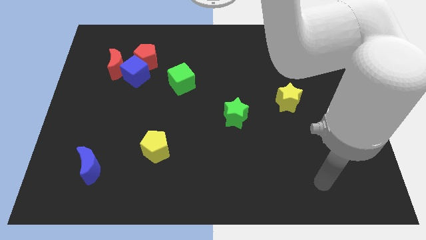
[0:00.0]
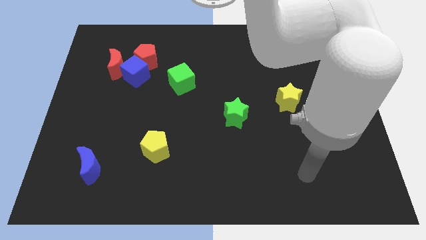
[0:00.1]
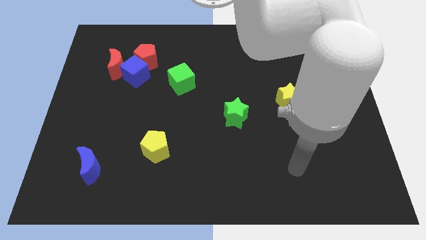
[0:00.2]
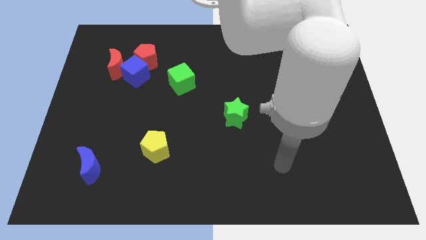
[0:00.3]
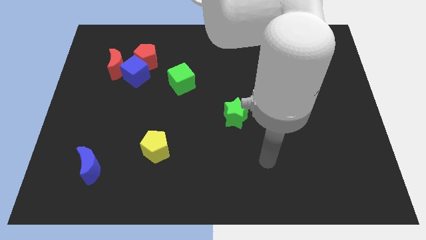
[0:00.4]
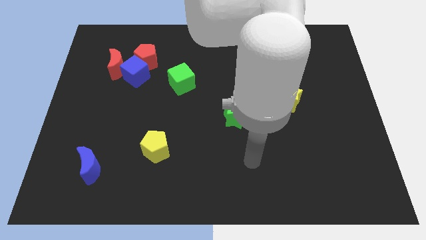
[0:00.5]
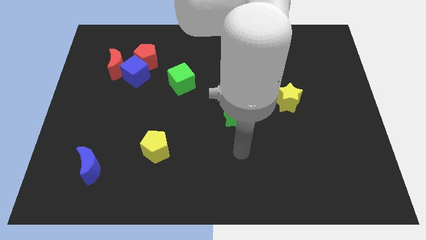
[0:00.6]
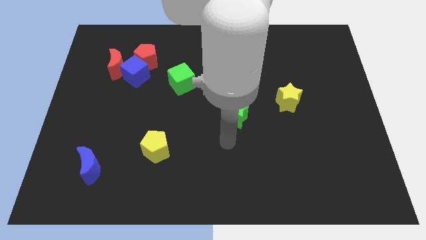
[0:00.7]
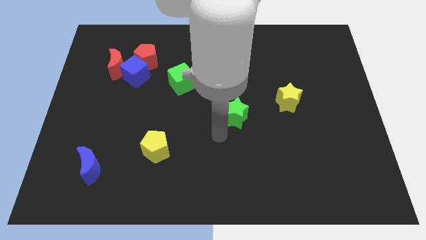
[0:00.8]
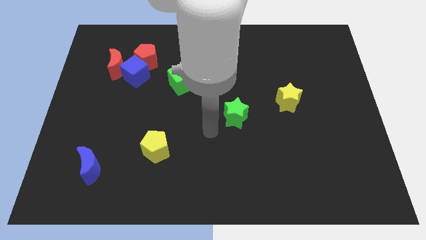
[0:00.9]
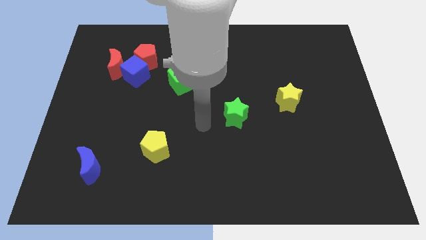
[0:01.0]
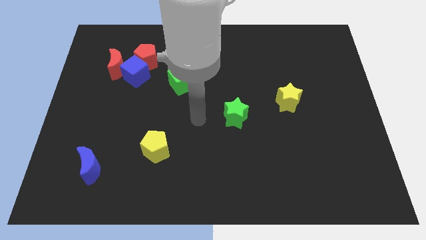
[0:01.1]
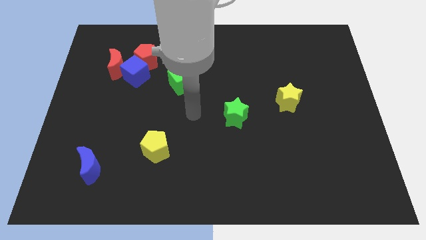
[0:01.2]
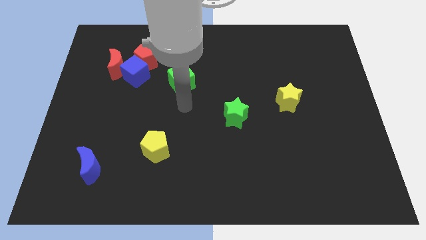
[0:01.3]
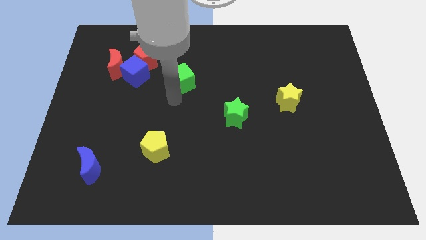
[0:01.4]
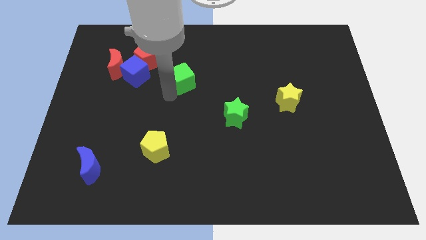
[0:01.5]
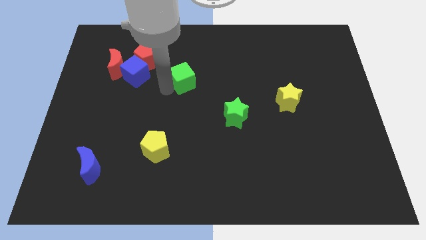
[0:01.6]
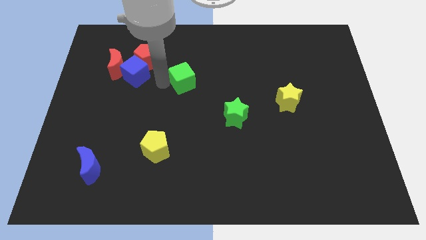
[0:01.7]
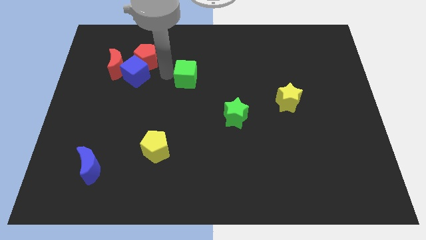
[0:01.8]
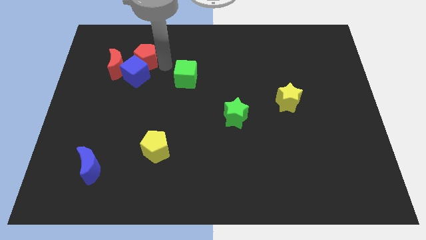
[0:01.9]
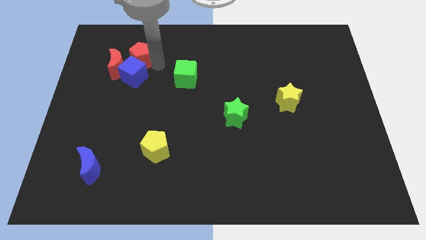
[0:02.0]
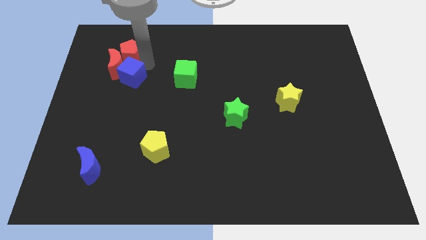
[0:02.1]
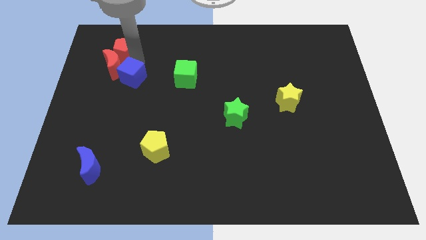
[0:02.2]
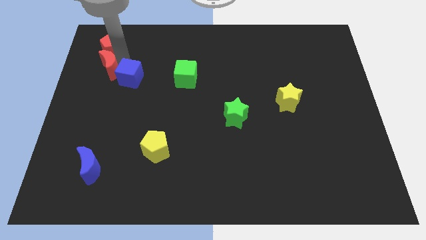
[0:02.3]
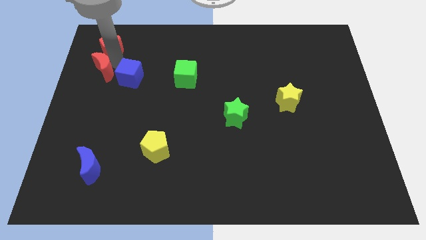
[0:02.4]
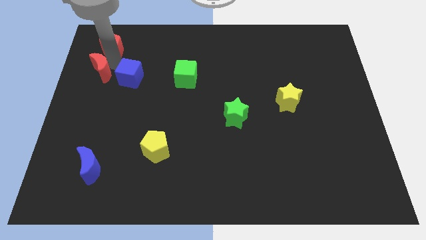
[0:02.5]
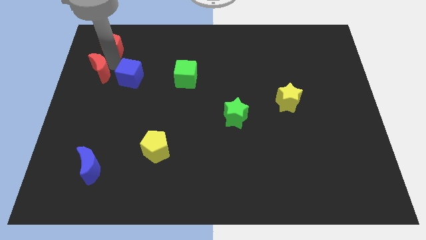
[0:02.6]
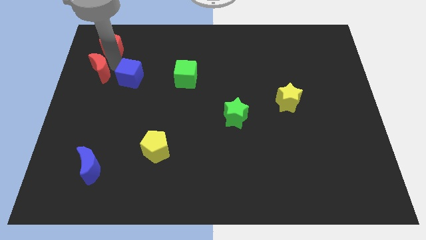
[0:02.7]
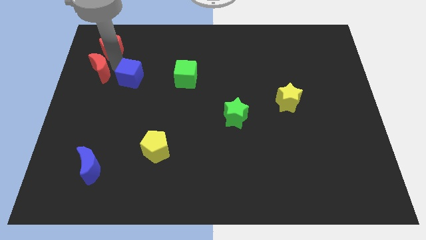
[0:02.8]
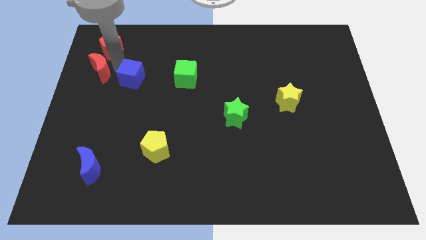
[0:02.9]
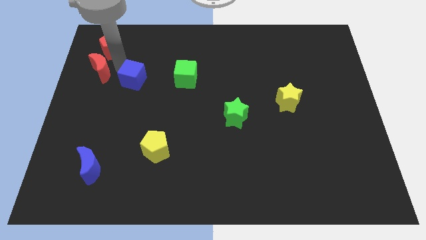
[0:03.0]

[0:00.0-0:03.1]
separate the blue cube from the red pentagon and red moon

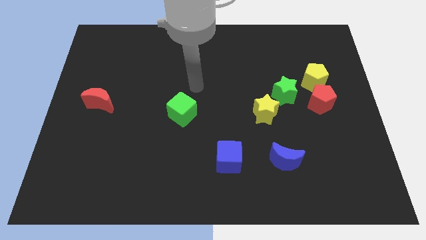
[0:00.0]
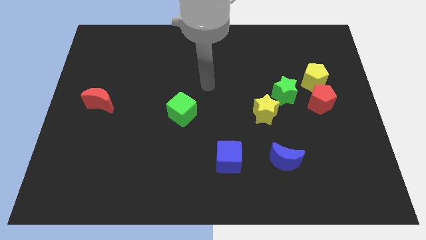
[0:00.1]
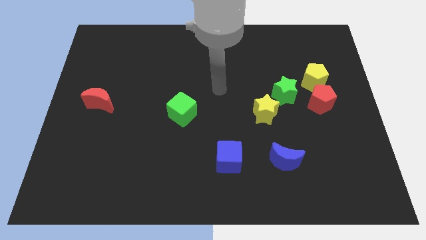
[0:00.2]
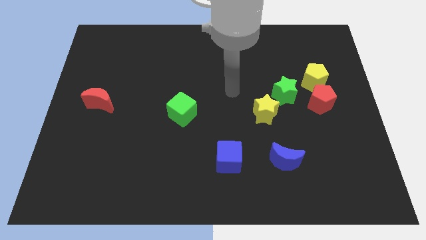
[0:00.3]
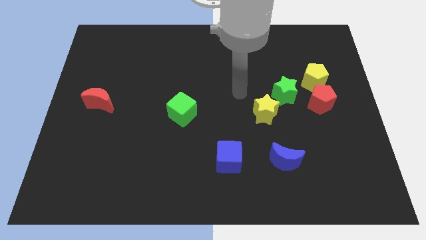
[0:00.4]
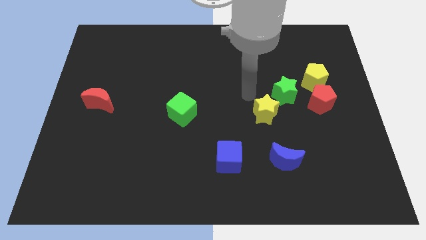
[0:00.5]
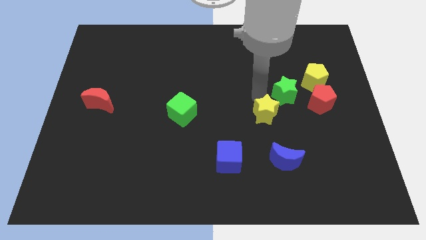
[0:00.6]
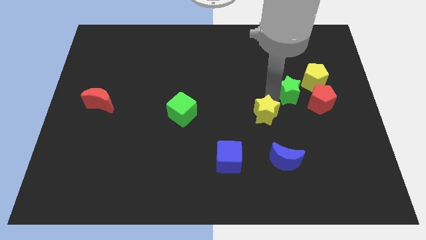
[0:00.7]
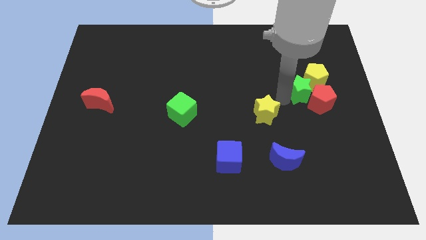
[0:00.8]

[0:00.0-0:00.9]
separate the yellow star from the green star

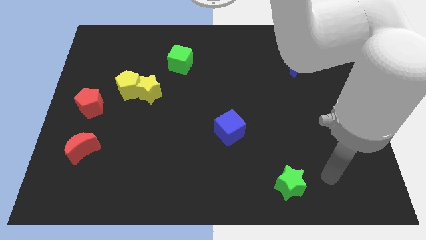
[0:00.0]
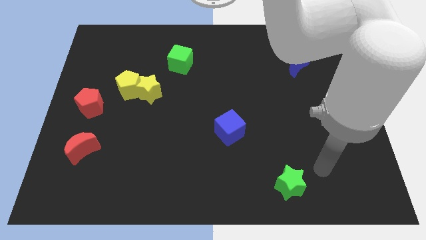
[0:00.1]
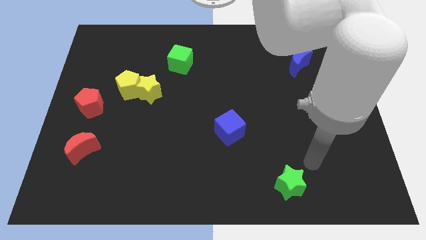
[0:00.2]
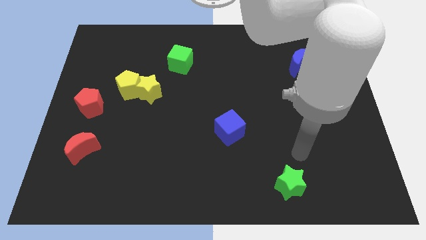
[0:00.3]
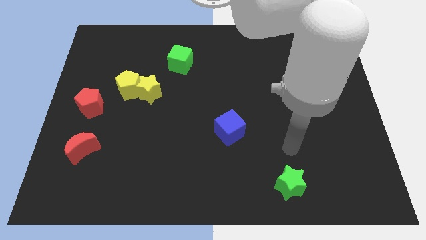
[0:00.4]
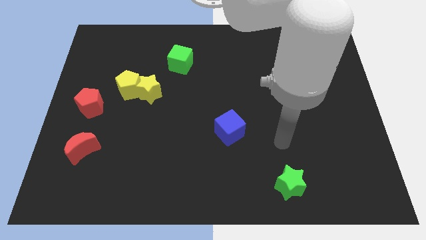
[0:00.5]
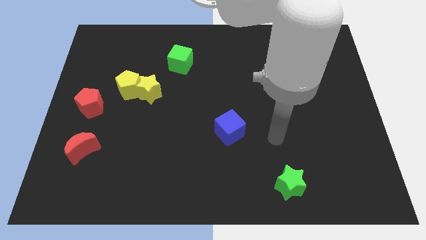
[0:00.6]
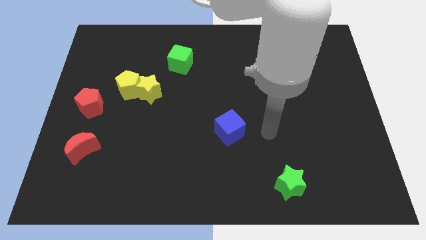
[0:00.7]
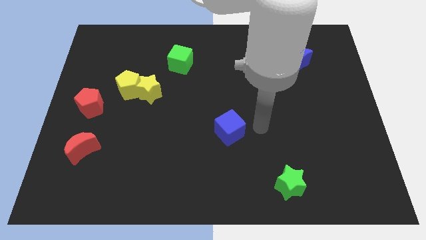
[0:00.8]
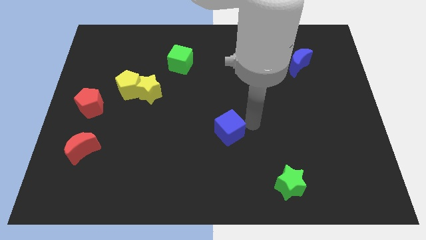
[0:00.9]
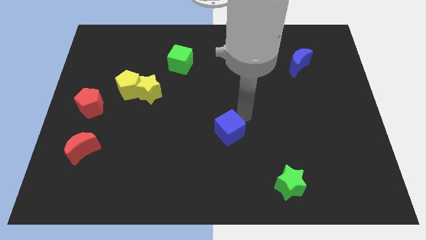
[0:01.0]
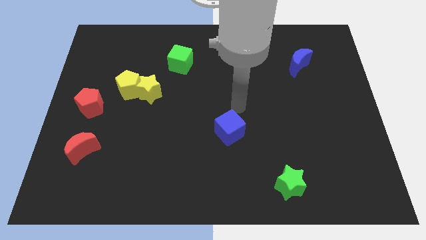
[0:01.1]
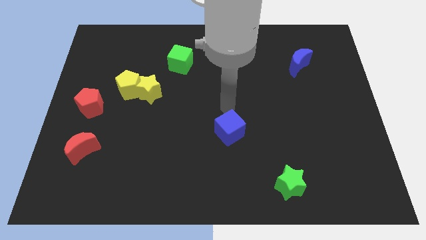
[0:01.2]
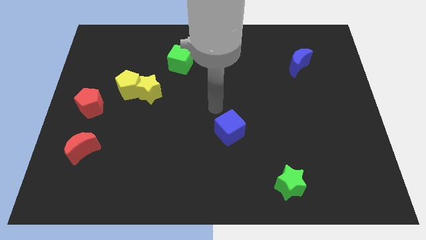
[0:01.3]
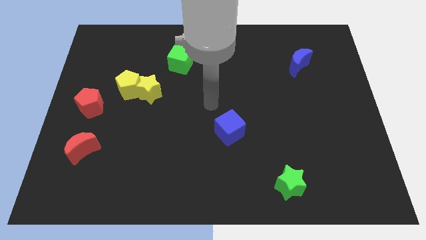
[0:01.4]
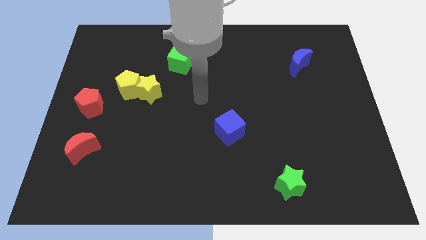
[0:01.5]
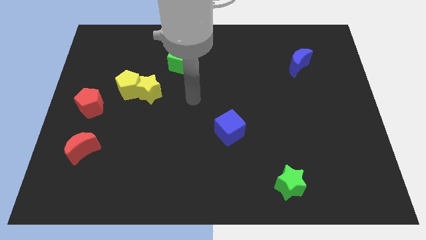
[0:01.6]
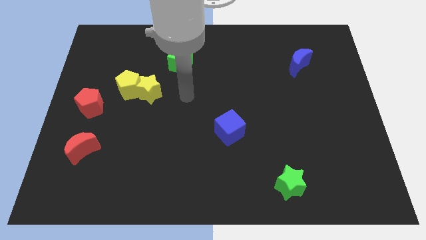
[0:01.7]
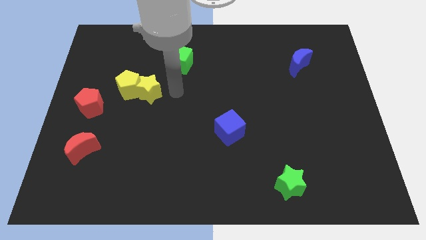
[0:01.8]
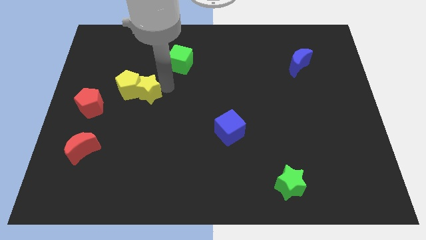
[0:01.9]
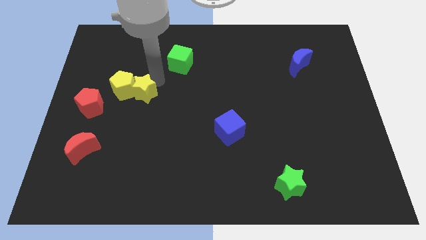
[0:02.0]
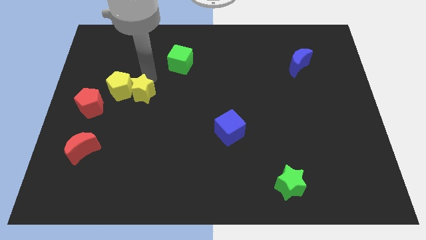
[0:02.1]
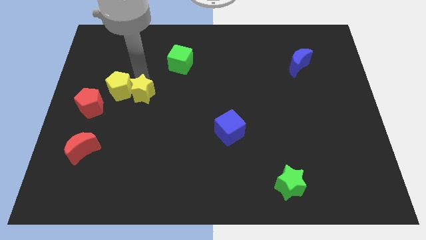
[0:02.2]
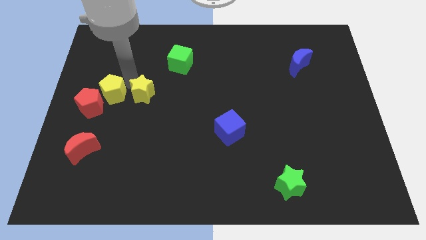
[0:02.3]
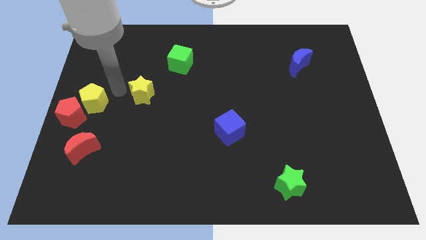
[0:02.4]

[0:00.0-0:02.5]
separate the yellow star from the yellow pentagon

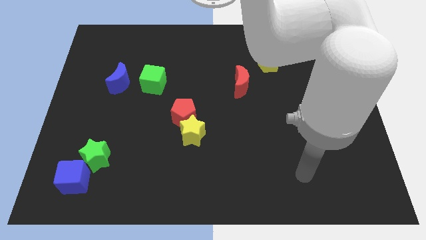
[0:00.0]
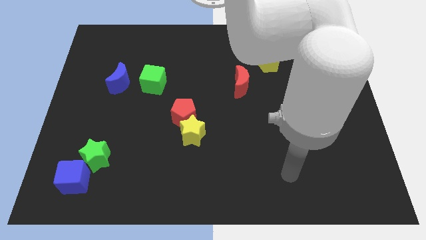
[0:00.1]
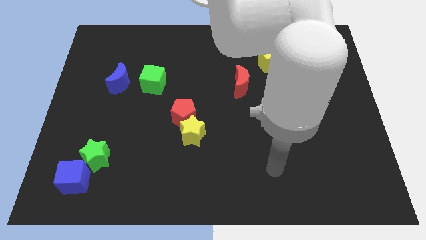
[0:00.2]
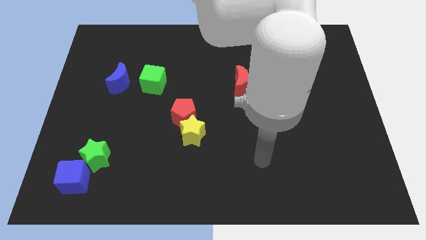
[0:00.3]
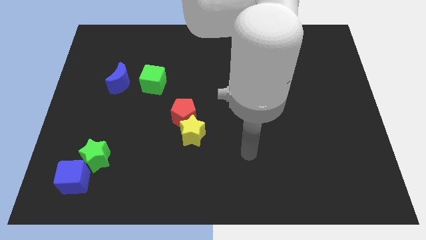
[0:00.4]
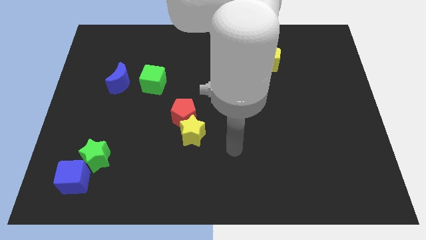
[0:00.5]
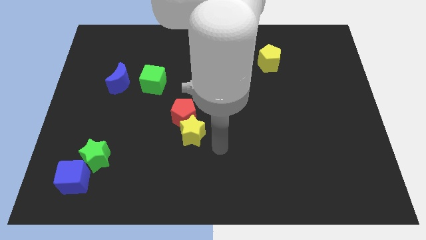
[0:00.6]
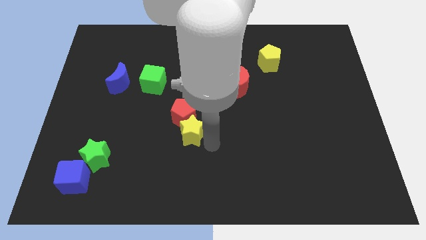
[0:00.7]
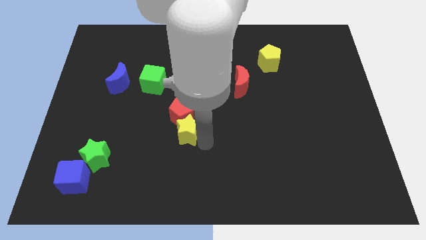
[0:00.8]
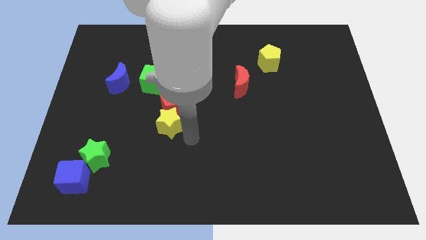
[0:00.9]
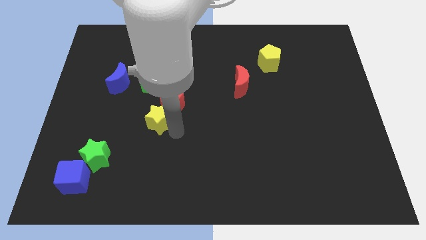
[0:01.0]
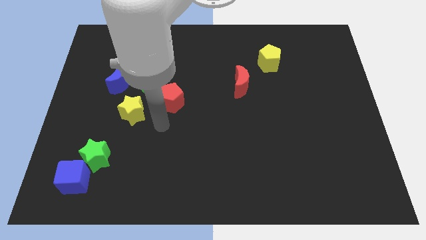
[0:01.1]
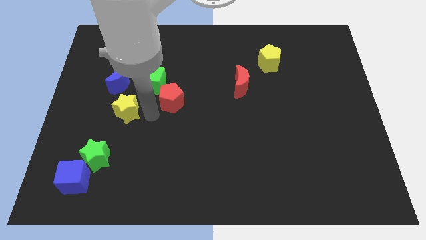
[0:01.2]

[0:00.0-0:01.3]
move the red pentagon away from the yellow star

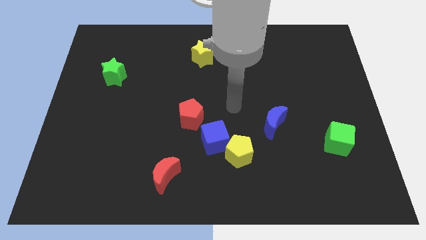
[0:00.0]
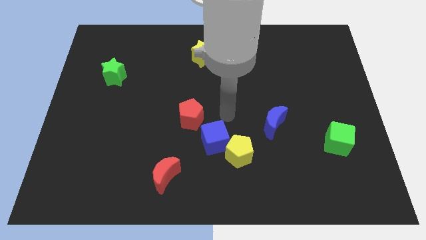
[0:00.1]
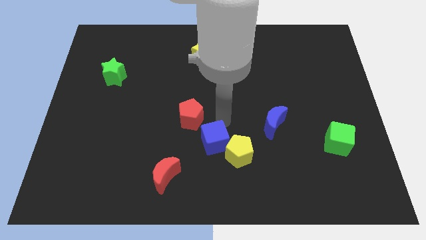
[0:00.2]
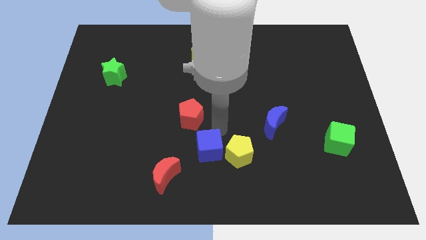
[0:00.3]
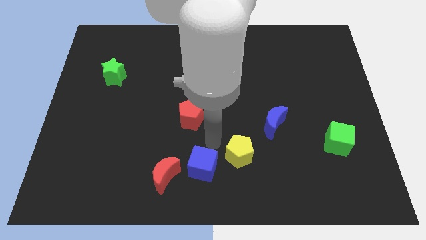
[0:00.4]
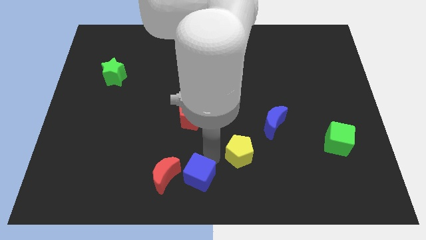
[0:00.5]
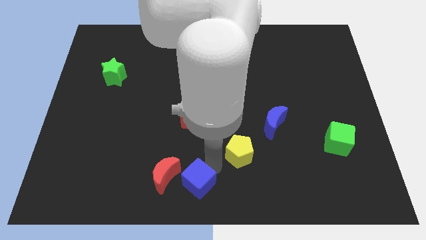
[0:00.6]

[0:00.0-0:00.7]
move the yellow pentagon away from the blue cube

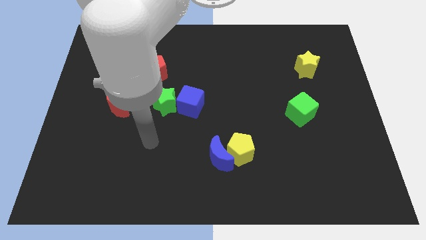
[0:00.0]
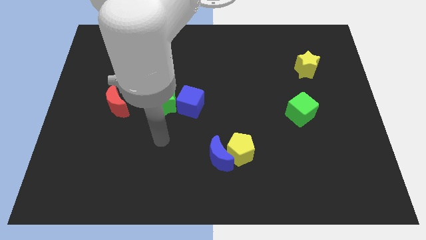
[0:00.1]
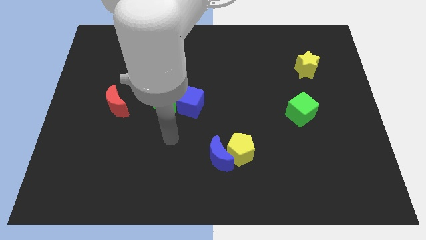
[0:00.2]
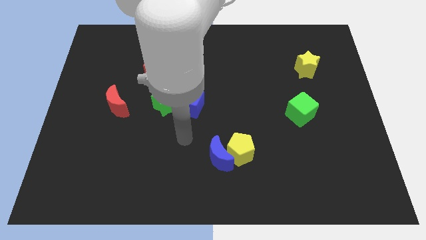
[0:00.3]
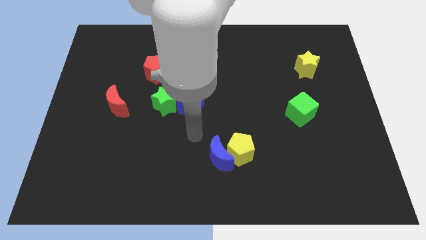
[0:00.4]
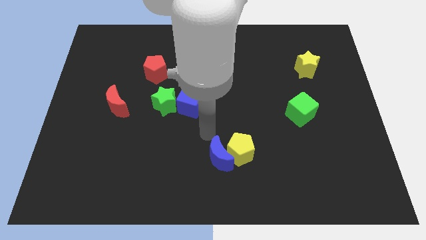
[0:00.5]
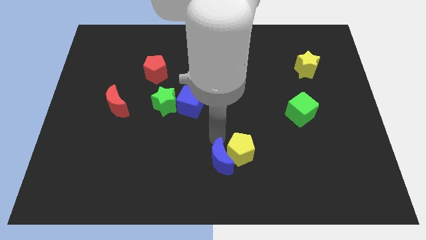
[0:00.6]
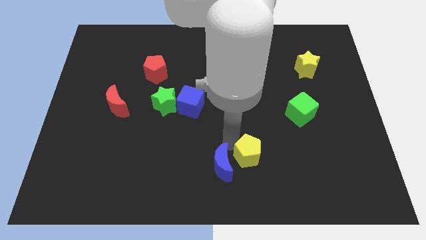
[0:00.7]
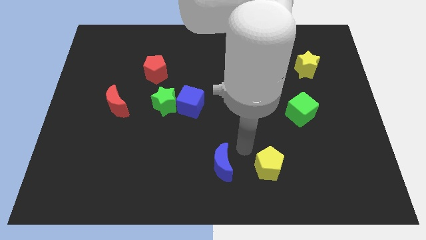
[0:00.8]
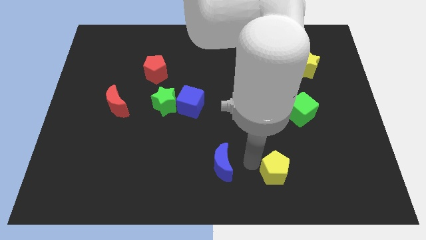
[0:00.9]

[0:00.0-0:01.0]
move the blue moon away from the yellow pentagon
